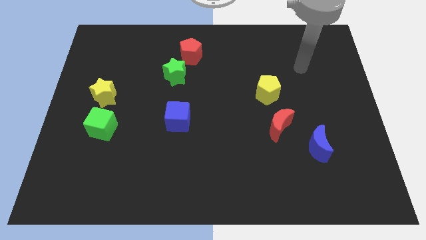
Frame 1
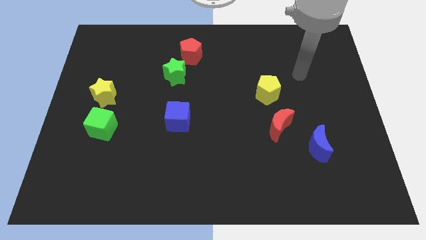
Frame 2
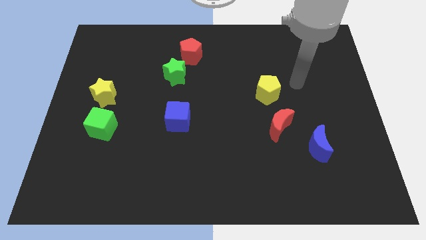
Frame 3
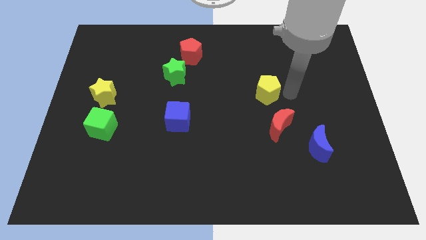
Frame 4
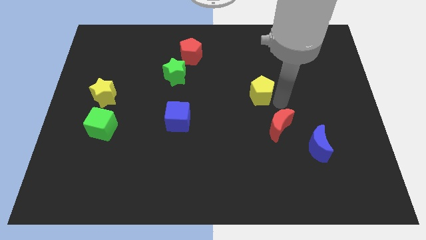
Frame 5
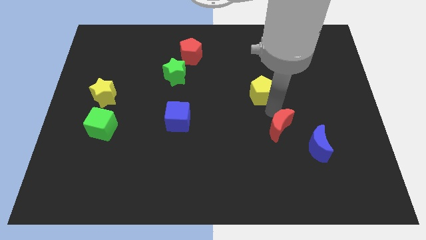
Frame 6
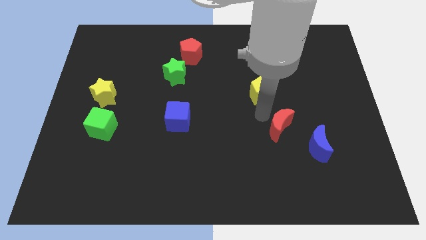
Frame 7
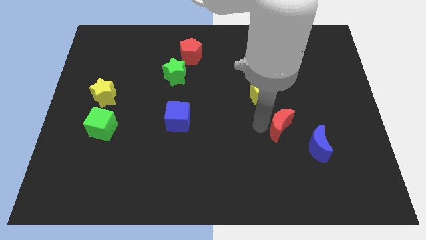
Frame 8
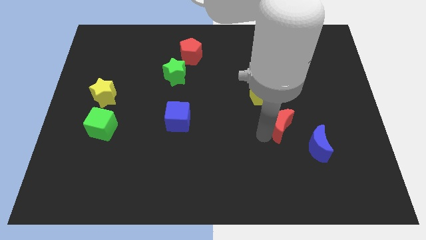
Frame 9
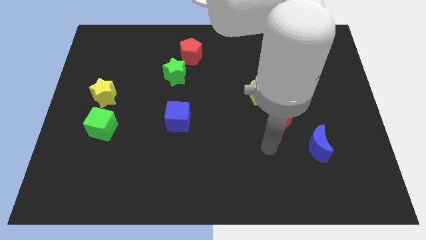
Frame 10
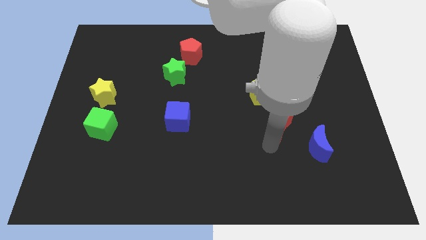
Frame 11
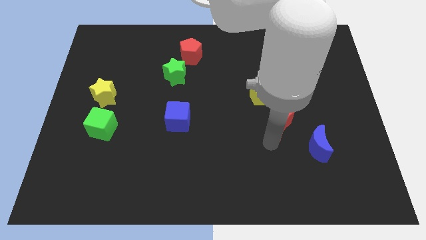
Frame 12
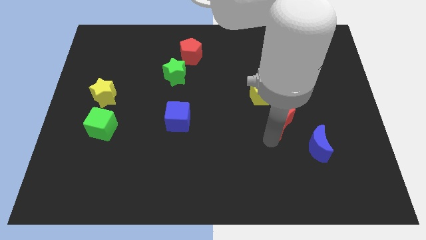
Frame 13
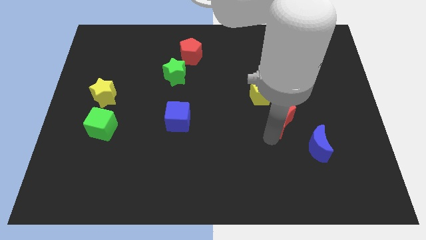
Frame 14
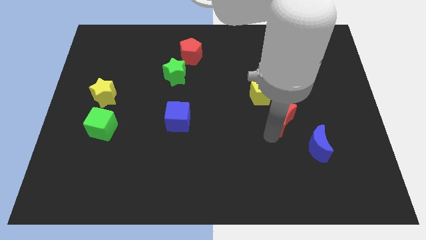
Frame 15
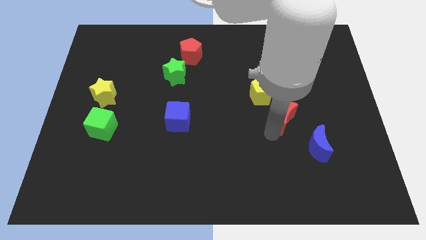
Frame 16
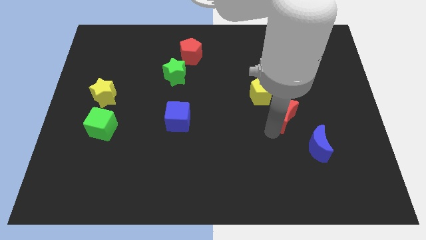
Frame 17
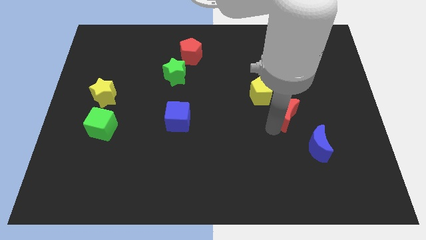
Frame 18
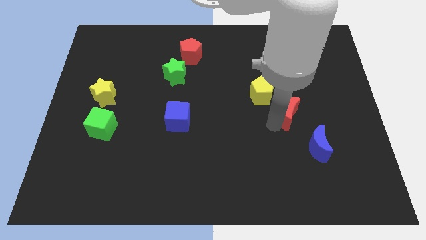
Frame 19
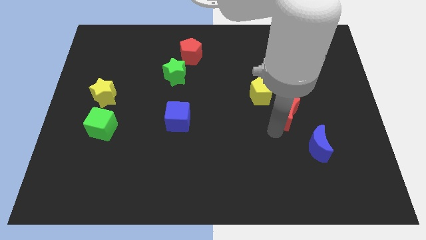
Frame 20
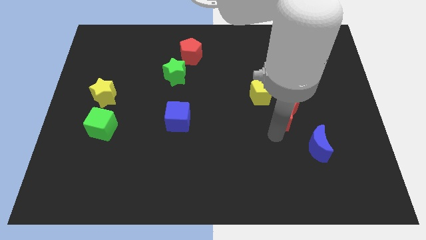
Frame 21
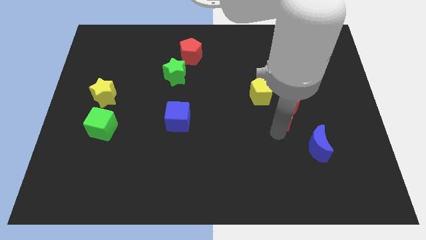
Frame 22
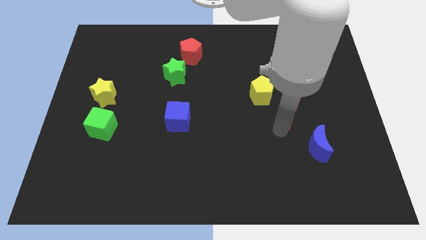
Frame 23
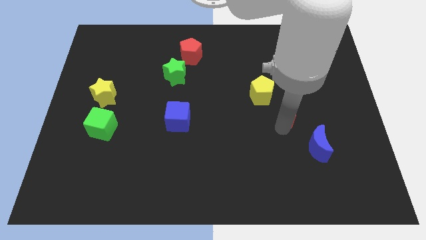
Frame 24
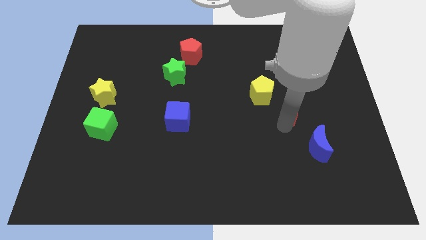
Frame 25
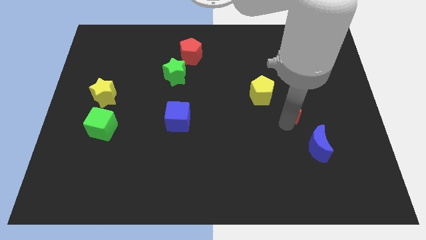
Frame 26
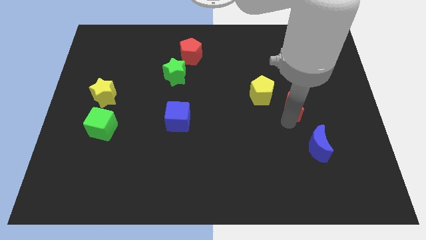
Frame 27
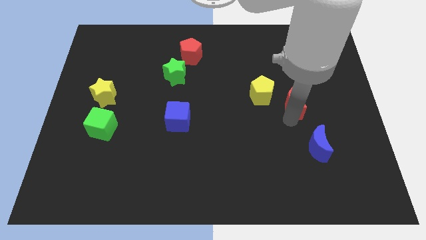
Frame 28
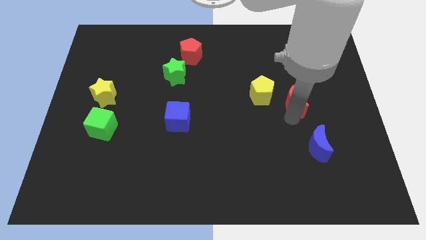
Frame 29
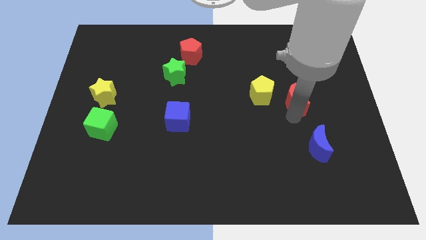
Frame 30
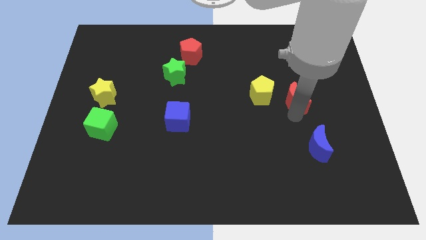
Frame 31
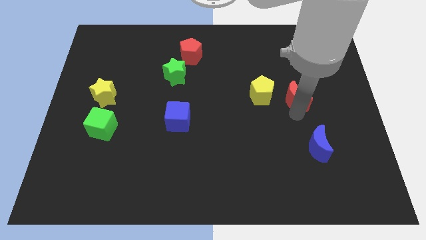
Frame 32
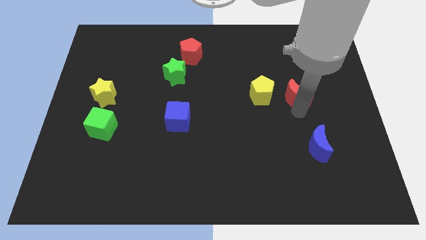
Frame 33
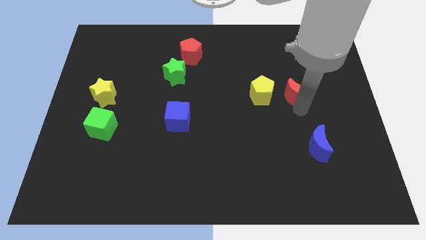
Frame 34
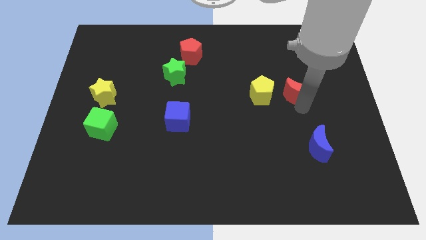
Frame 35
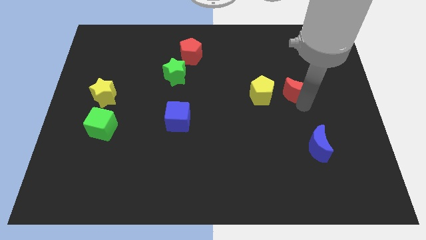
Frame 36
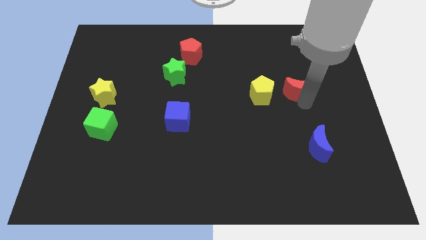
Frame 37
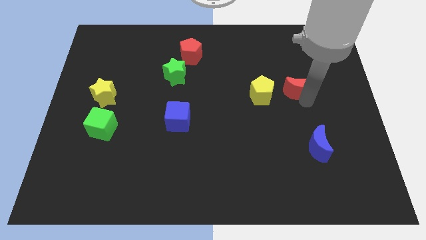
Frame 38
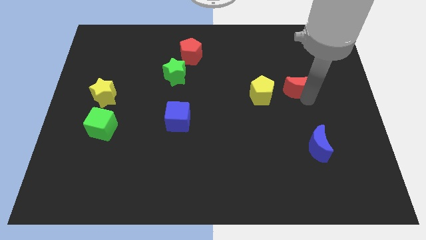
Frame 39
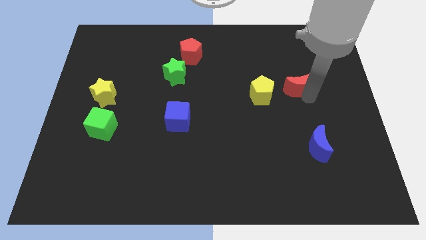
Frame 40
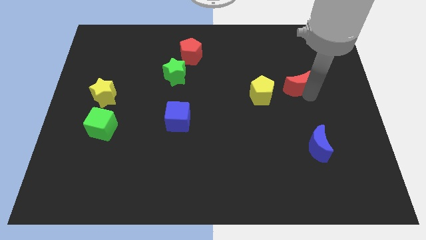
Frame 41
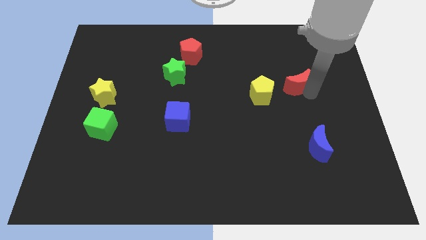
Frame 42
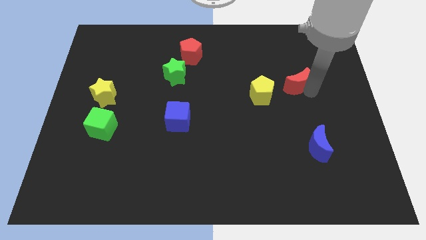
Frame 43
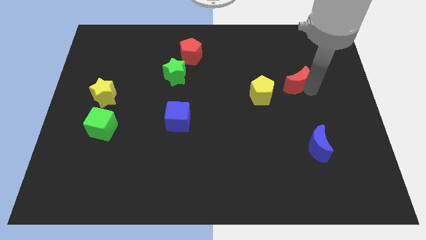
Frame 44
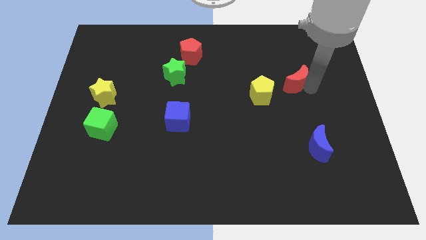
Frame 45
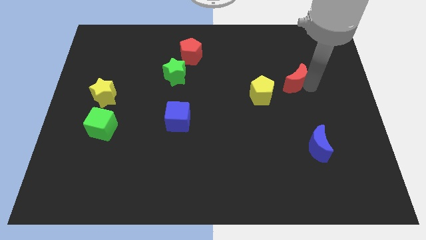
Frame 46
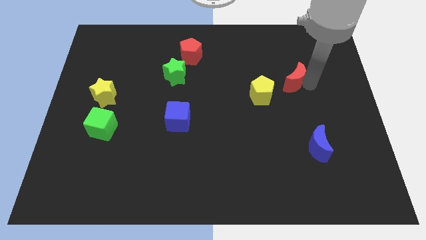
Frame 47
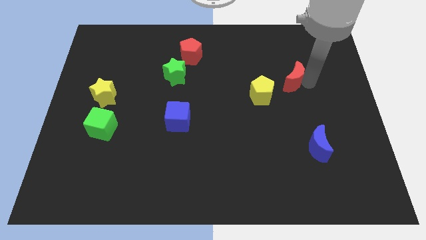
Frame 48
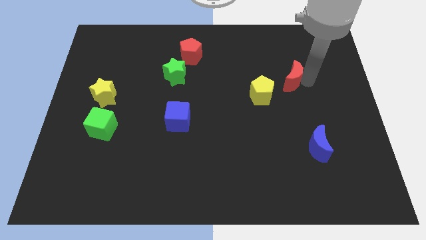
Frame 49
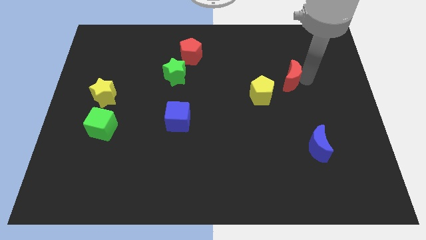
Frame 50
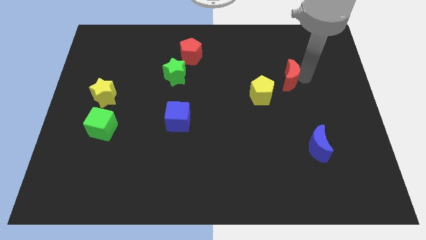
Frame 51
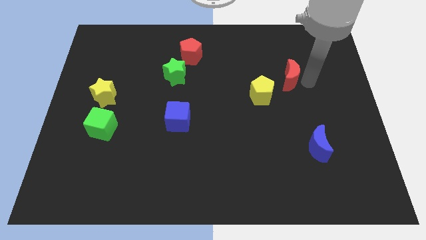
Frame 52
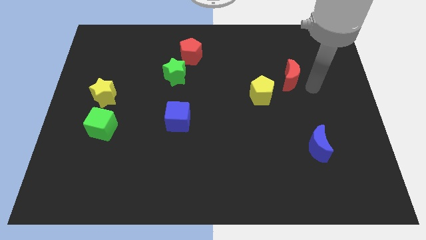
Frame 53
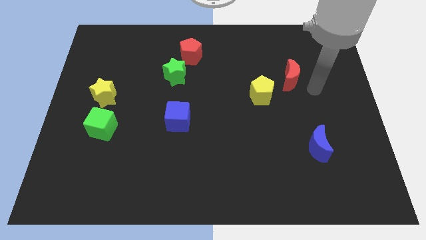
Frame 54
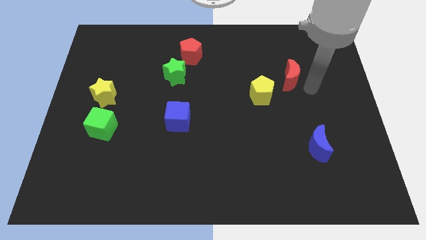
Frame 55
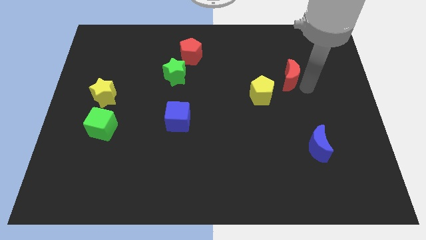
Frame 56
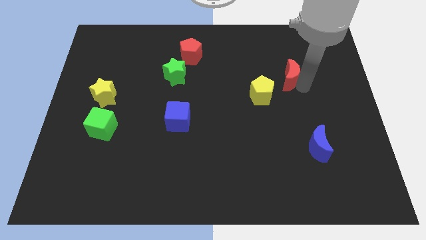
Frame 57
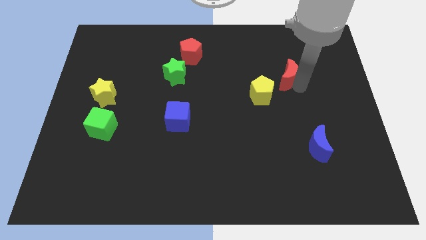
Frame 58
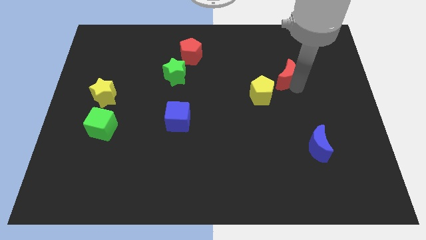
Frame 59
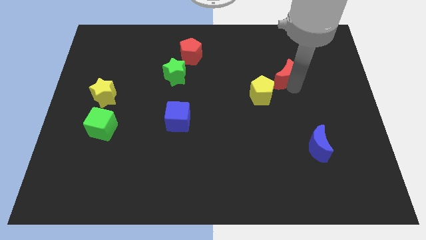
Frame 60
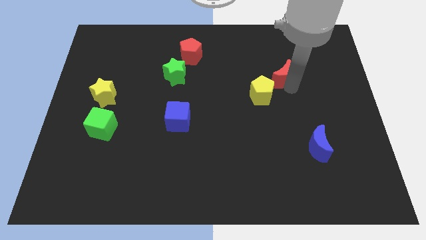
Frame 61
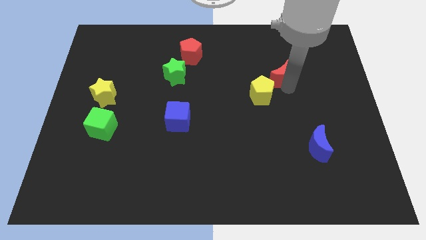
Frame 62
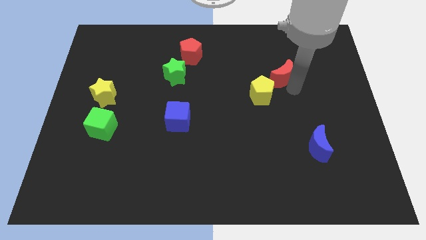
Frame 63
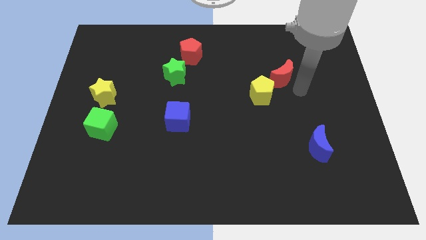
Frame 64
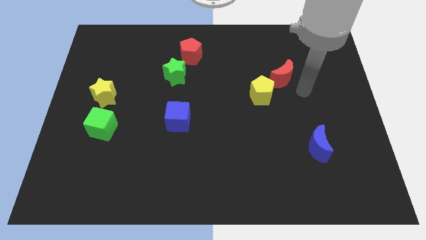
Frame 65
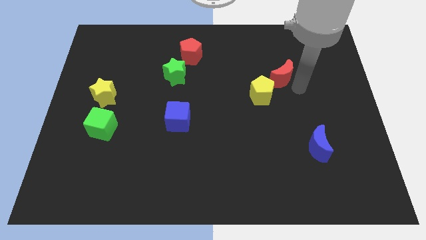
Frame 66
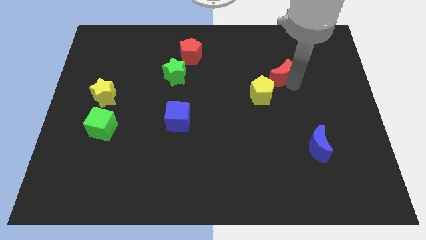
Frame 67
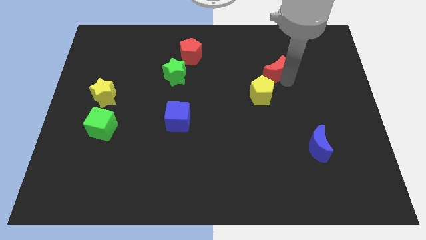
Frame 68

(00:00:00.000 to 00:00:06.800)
push the red moon to the top of the yellow pentagon
